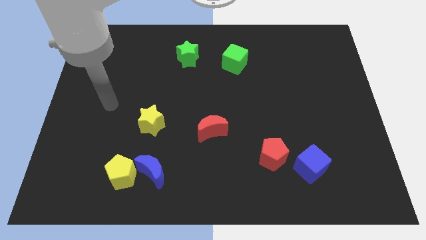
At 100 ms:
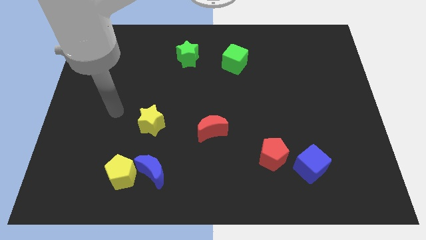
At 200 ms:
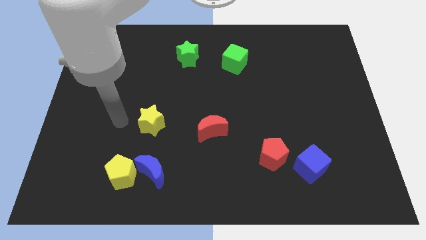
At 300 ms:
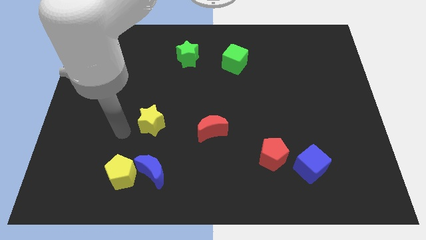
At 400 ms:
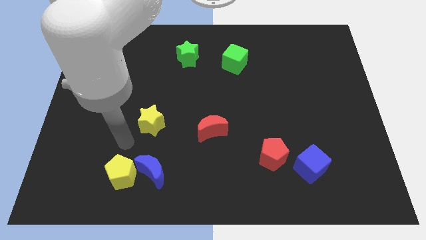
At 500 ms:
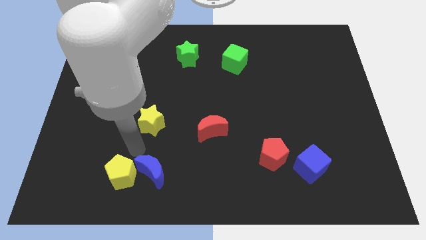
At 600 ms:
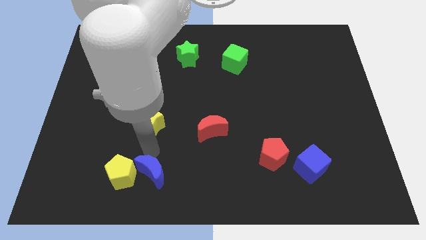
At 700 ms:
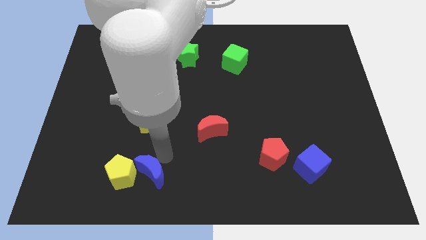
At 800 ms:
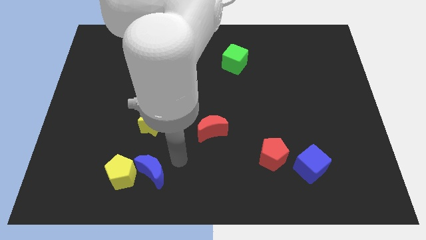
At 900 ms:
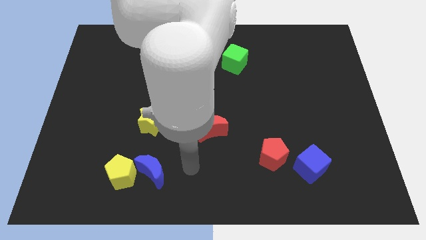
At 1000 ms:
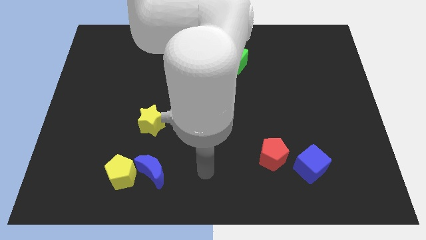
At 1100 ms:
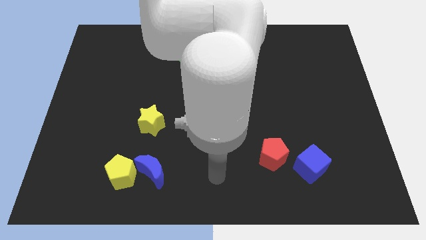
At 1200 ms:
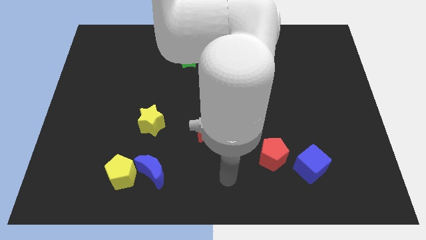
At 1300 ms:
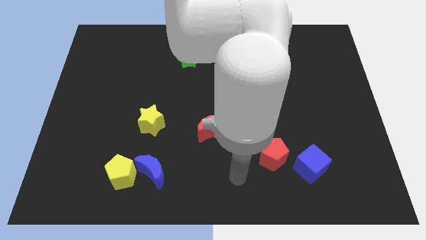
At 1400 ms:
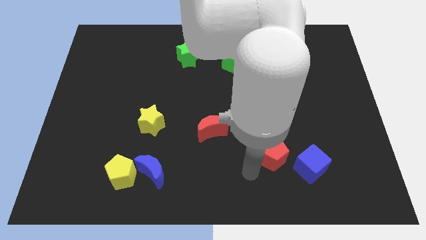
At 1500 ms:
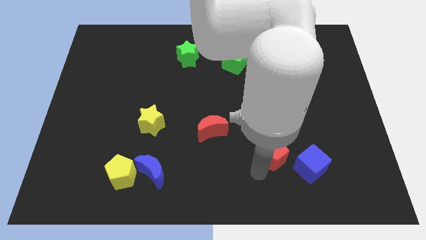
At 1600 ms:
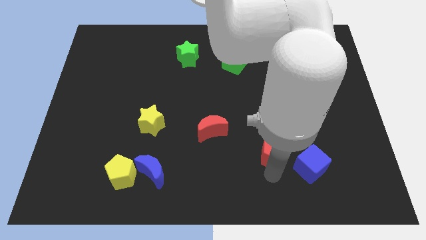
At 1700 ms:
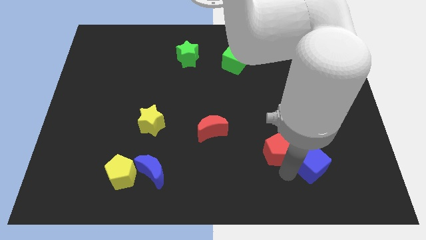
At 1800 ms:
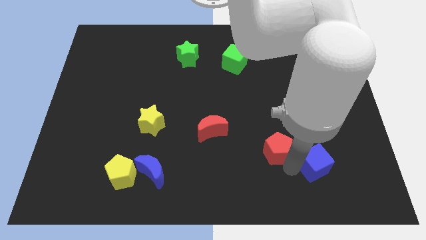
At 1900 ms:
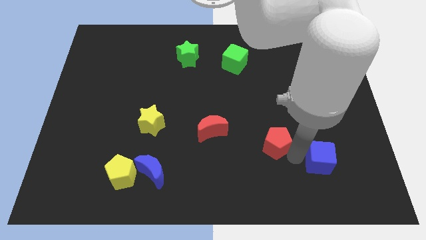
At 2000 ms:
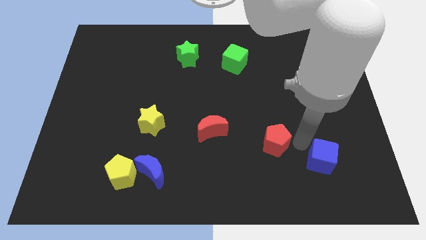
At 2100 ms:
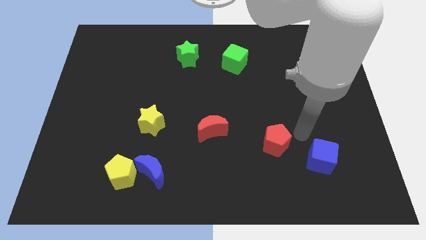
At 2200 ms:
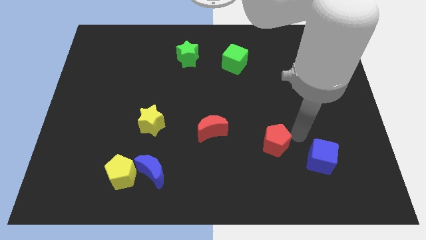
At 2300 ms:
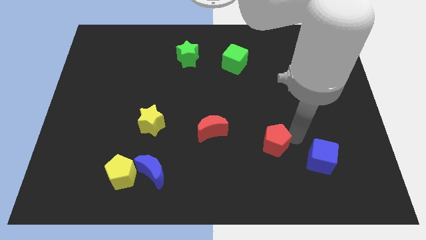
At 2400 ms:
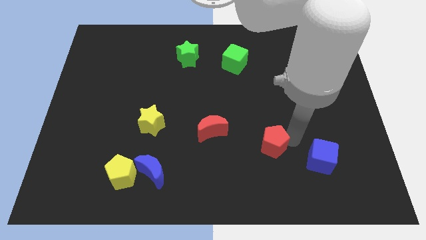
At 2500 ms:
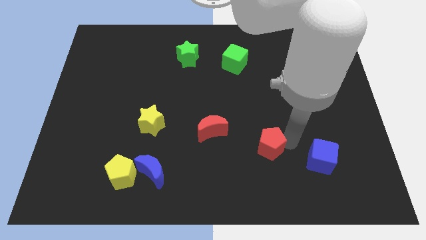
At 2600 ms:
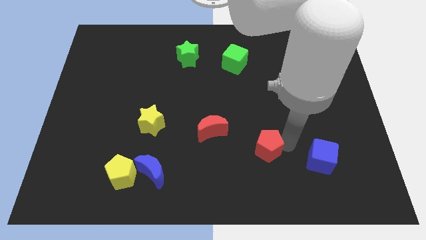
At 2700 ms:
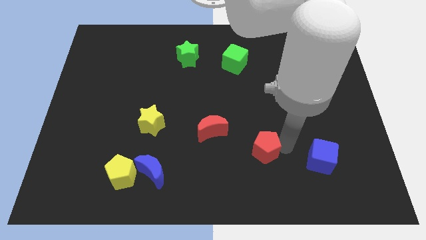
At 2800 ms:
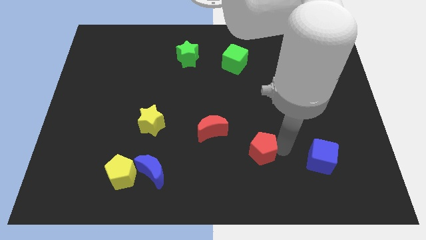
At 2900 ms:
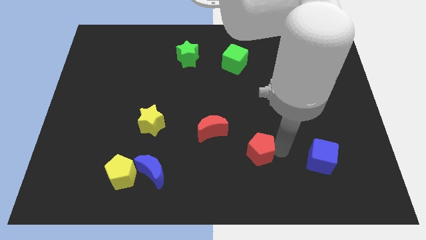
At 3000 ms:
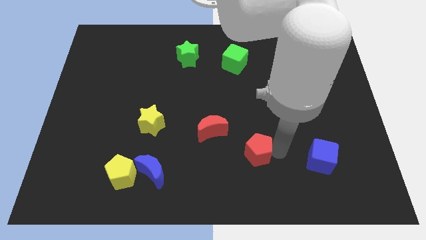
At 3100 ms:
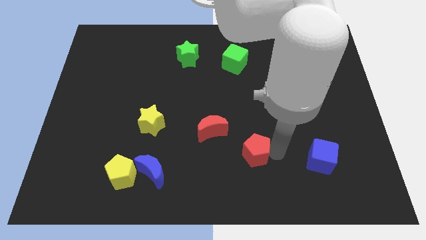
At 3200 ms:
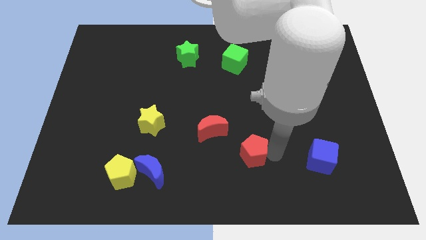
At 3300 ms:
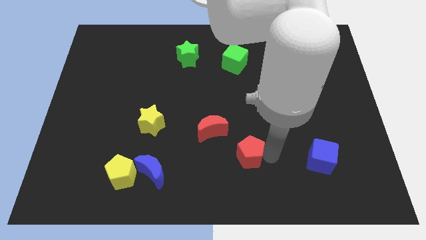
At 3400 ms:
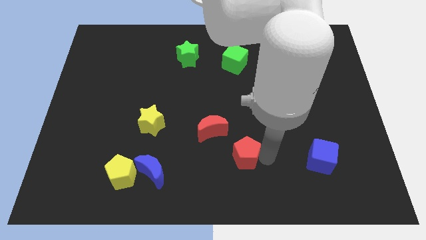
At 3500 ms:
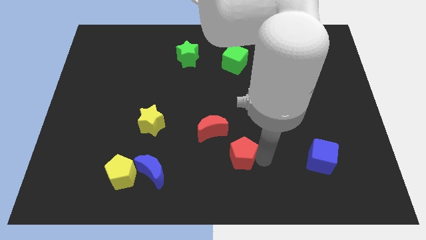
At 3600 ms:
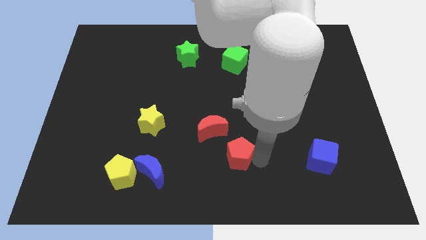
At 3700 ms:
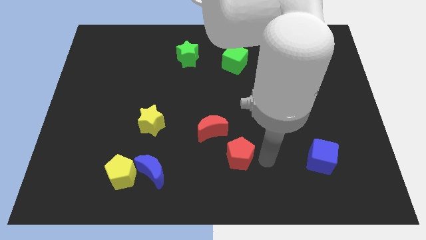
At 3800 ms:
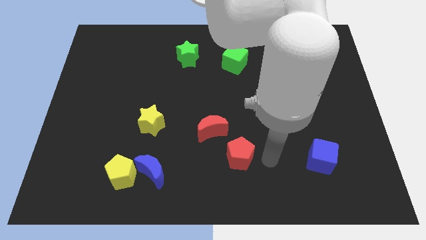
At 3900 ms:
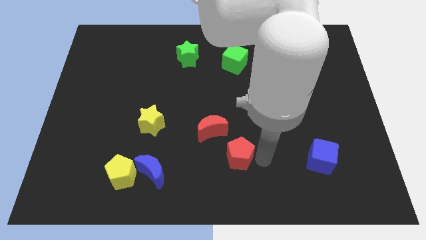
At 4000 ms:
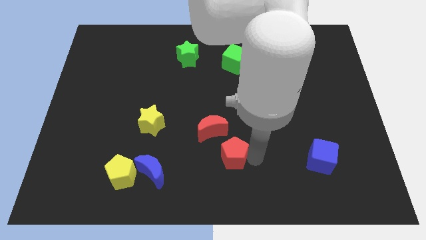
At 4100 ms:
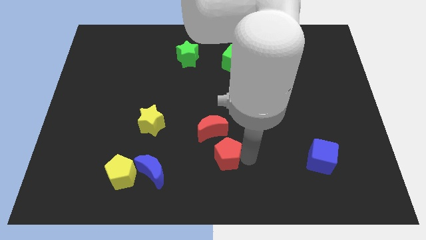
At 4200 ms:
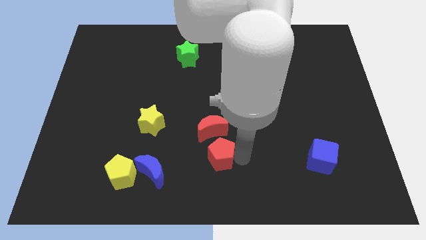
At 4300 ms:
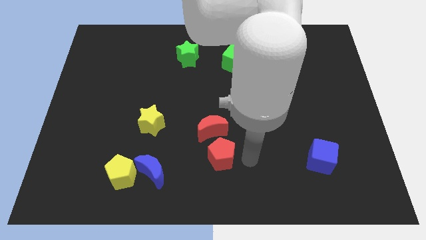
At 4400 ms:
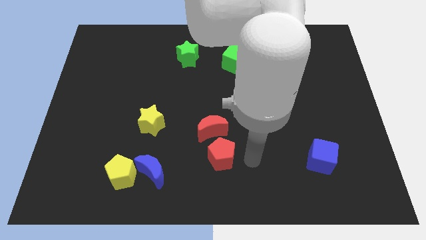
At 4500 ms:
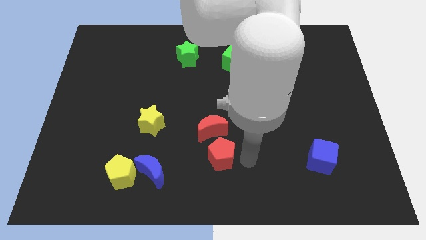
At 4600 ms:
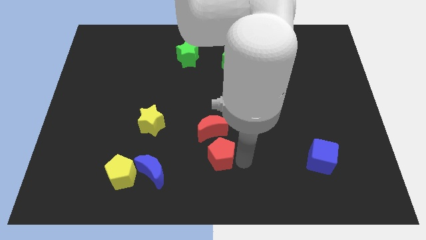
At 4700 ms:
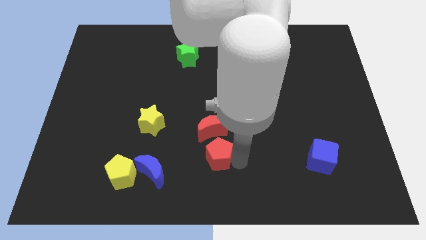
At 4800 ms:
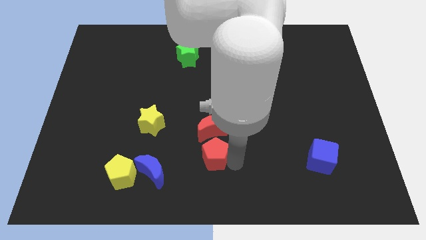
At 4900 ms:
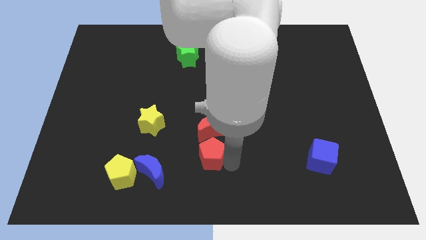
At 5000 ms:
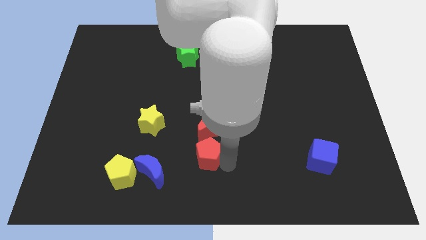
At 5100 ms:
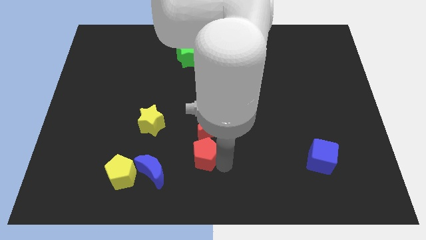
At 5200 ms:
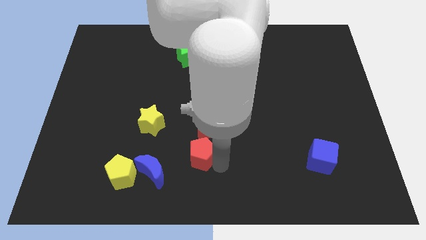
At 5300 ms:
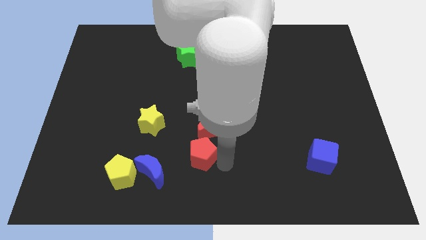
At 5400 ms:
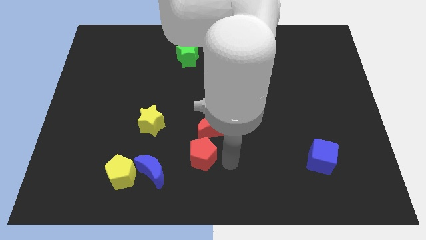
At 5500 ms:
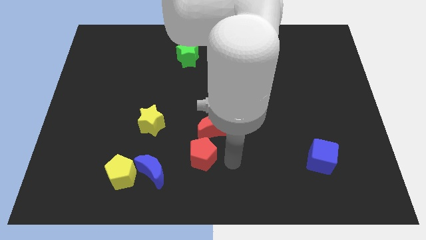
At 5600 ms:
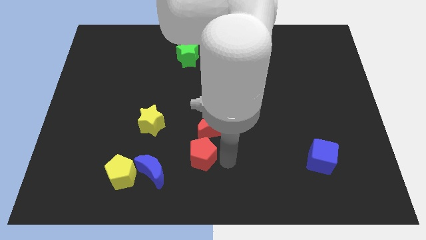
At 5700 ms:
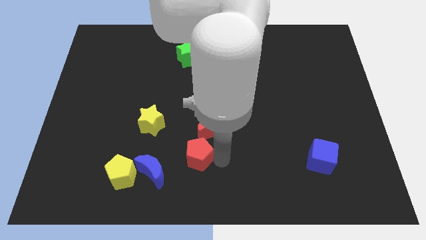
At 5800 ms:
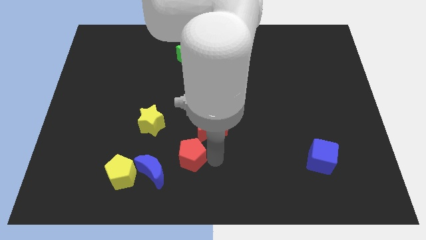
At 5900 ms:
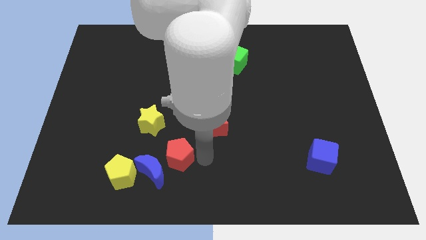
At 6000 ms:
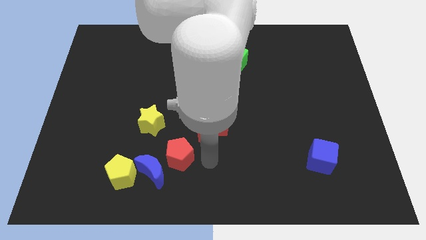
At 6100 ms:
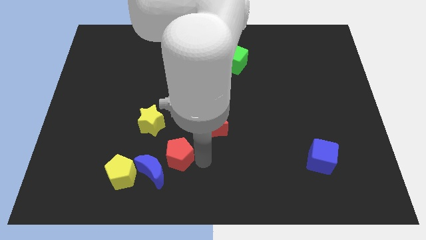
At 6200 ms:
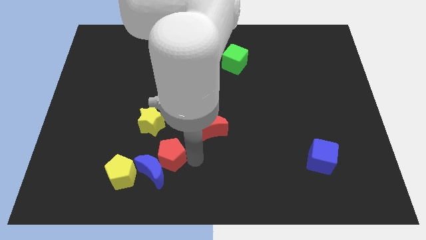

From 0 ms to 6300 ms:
push the red pentagon to the top right of the yellow pentagon

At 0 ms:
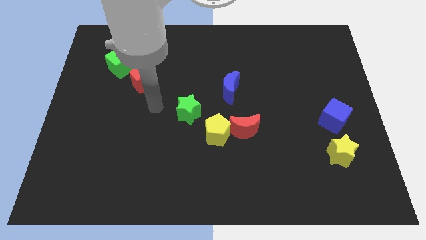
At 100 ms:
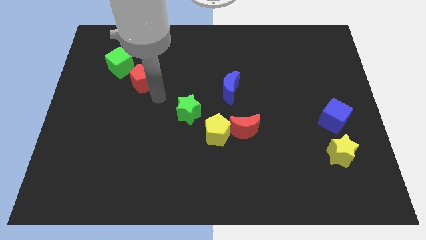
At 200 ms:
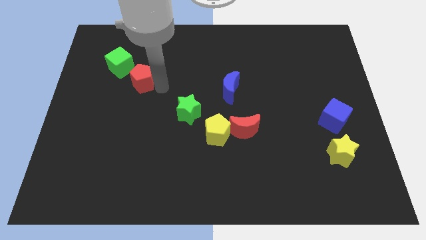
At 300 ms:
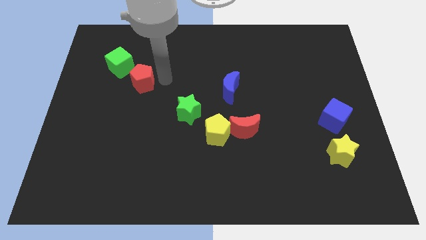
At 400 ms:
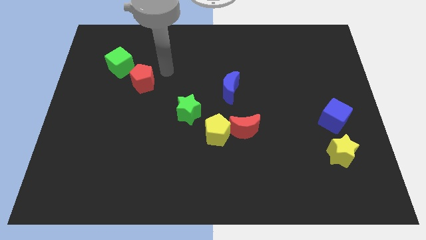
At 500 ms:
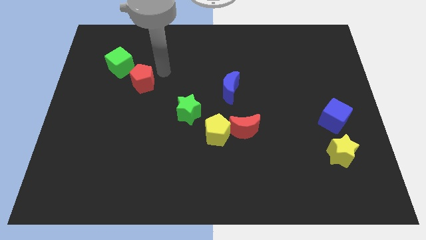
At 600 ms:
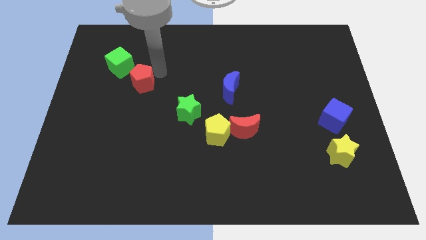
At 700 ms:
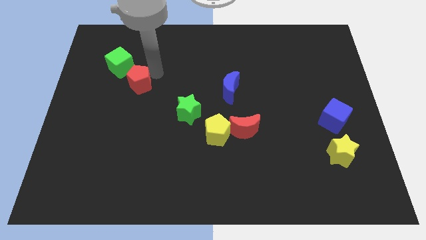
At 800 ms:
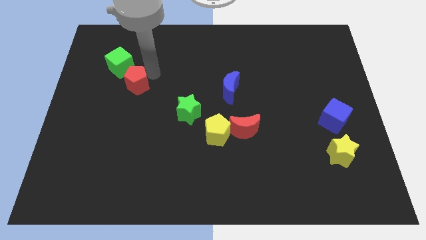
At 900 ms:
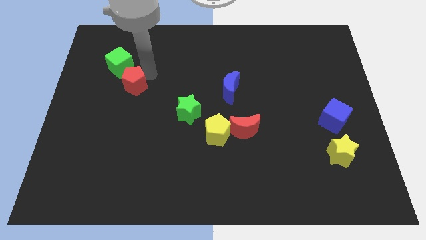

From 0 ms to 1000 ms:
push the red pentagon to the bottom side of the green cube
